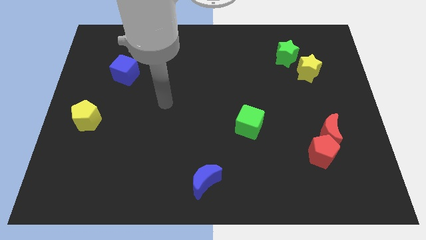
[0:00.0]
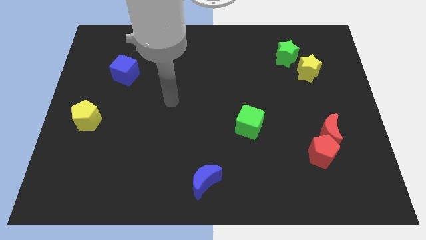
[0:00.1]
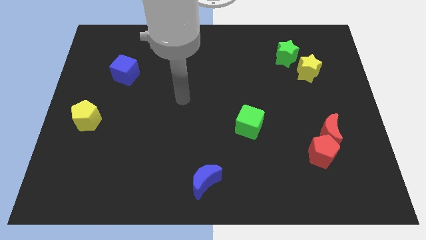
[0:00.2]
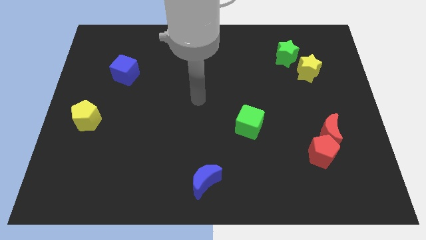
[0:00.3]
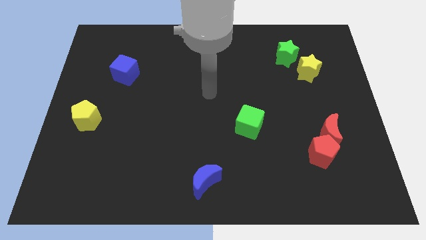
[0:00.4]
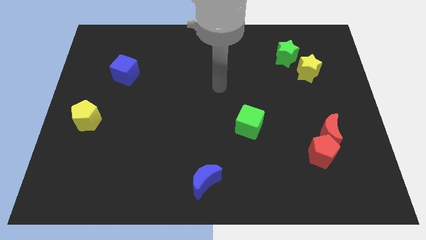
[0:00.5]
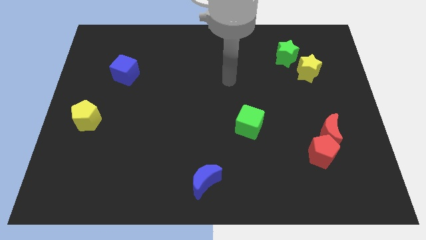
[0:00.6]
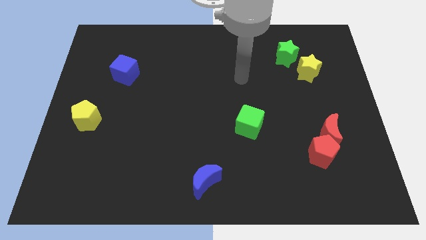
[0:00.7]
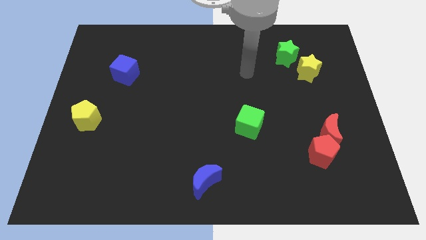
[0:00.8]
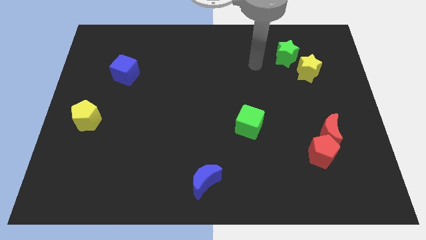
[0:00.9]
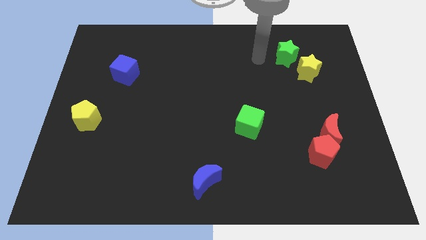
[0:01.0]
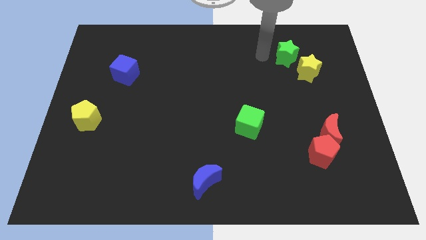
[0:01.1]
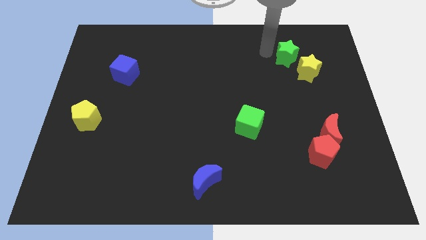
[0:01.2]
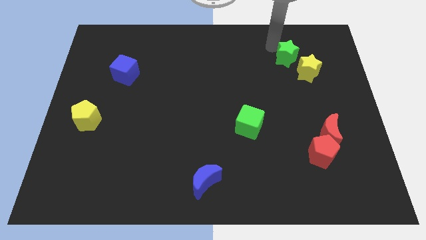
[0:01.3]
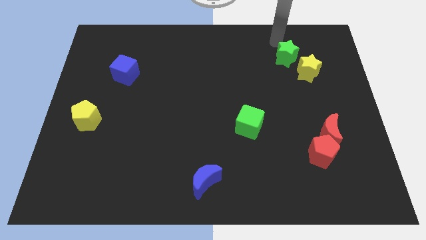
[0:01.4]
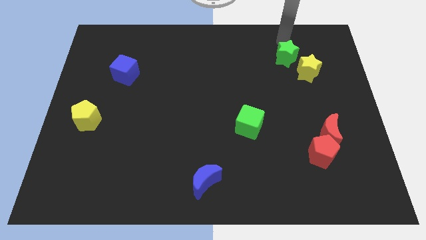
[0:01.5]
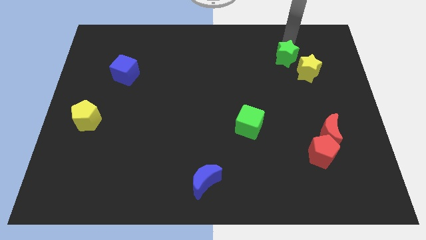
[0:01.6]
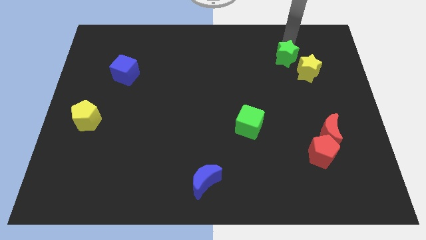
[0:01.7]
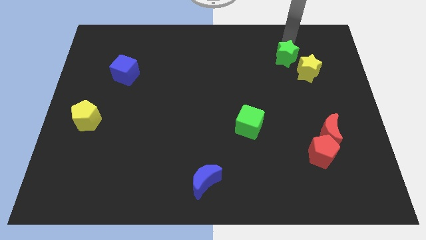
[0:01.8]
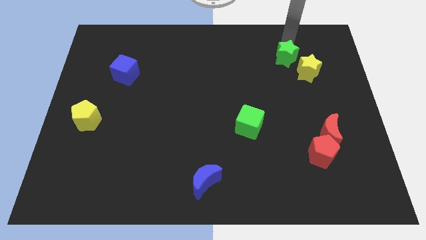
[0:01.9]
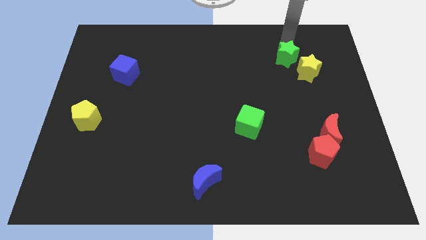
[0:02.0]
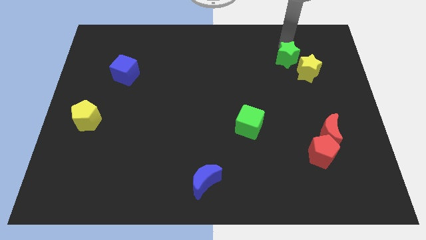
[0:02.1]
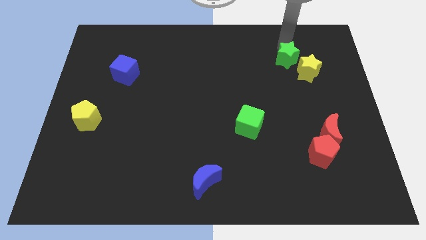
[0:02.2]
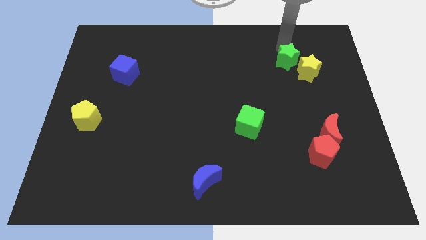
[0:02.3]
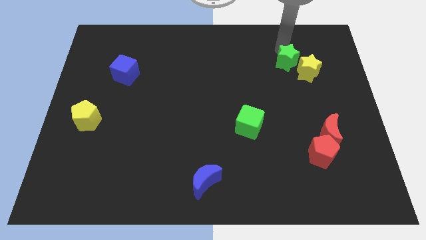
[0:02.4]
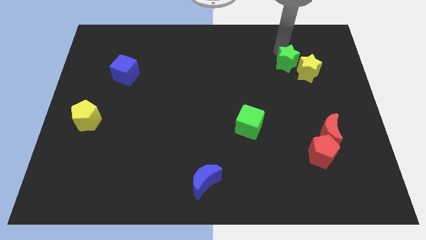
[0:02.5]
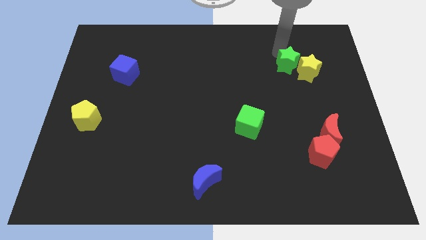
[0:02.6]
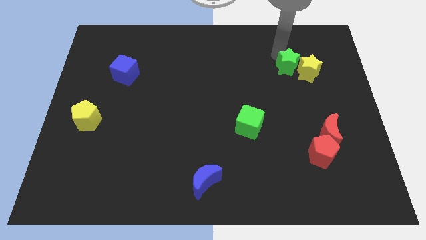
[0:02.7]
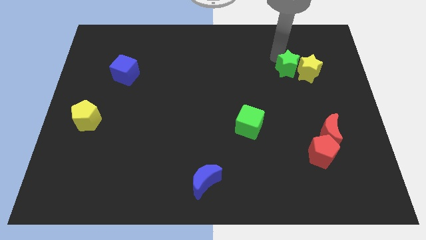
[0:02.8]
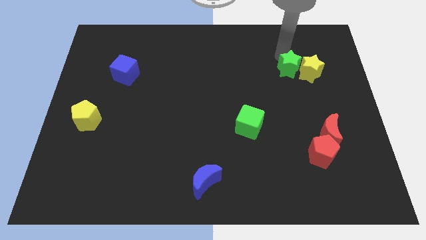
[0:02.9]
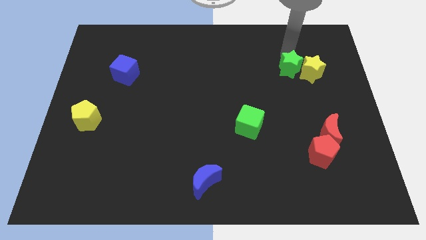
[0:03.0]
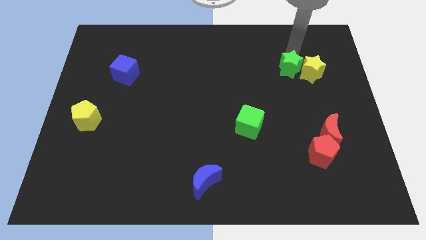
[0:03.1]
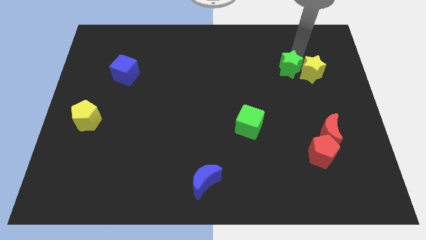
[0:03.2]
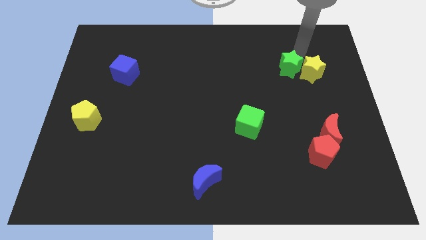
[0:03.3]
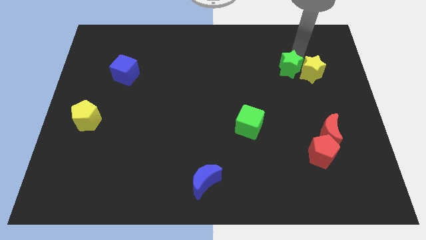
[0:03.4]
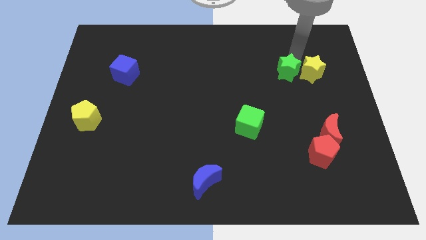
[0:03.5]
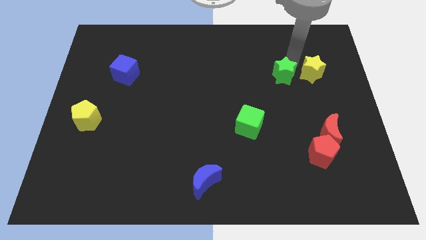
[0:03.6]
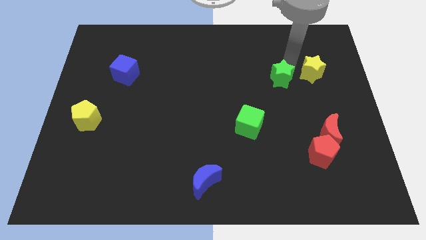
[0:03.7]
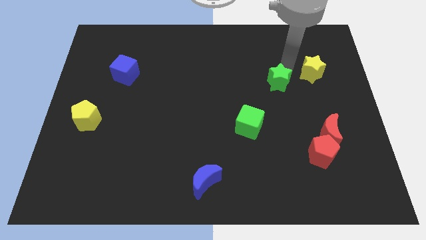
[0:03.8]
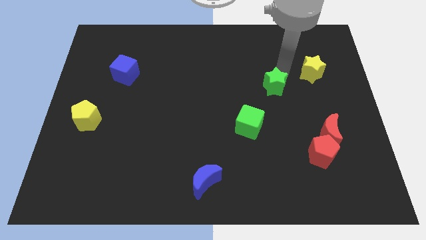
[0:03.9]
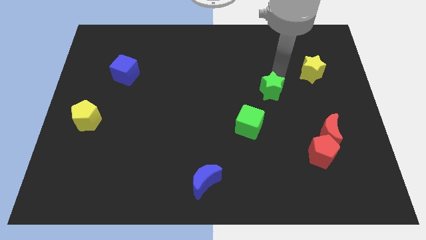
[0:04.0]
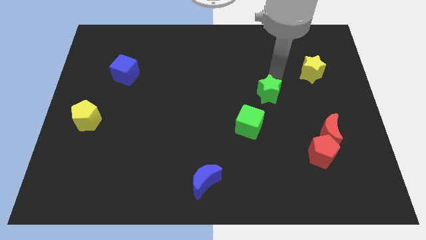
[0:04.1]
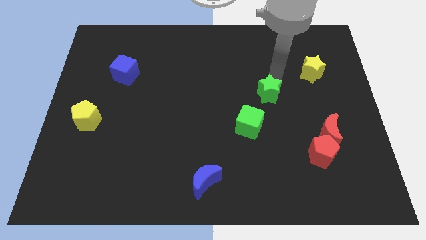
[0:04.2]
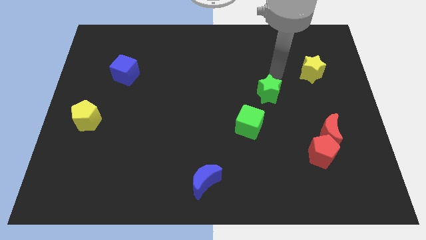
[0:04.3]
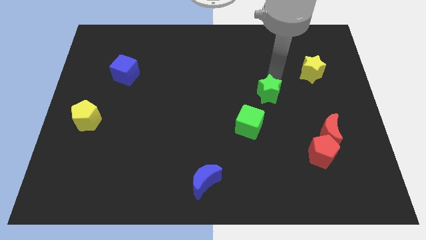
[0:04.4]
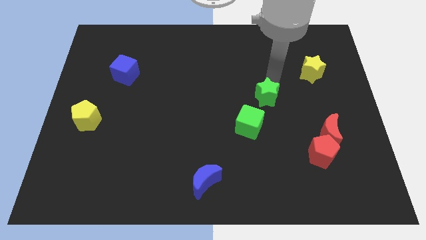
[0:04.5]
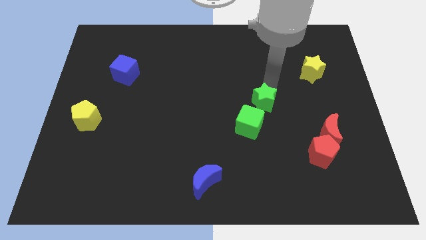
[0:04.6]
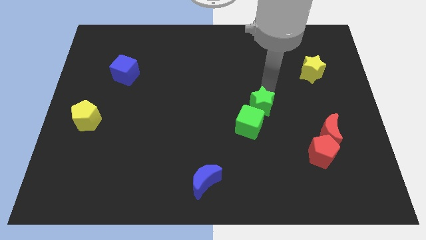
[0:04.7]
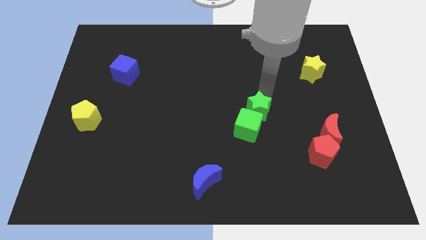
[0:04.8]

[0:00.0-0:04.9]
push the green star towards the green cube

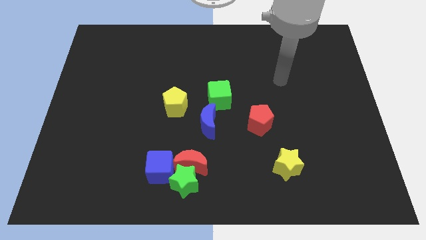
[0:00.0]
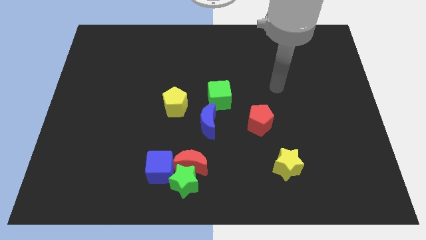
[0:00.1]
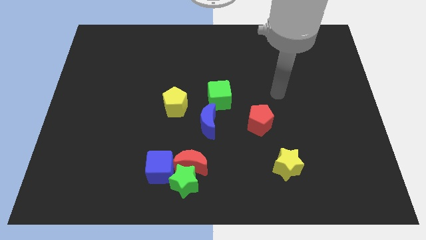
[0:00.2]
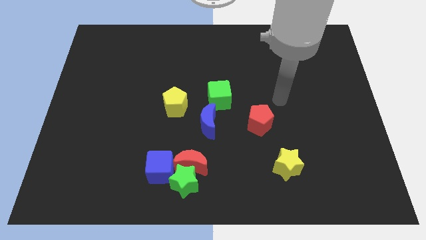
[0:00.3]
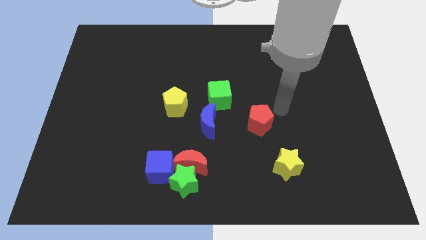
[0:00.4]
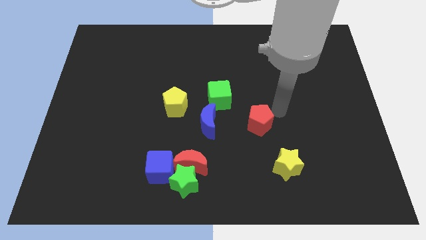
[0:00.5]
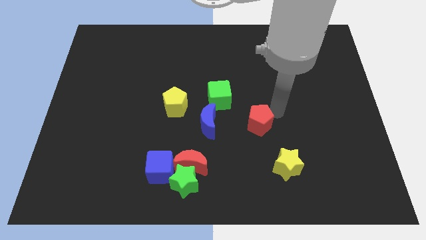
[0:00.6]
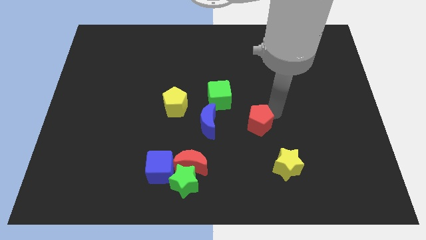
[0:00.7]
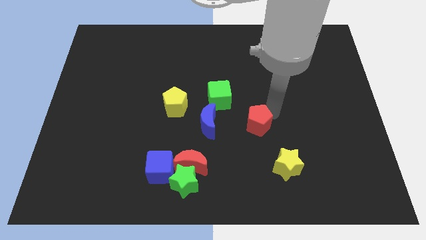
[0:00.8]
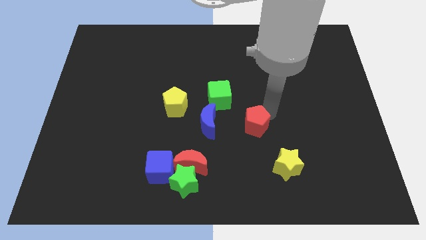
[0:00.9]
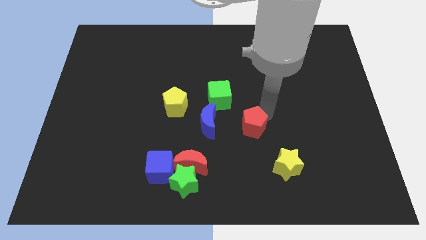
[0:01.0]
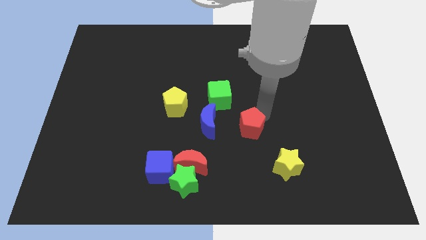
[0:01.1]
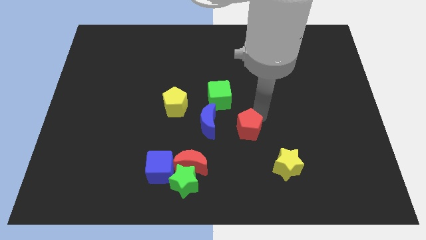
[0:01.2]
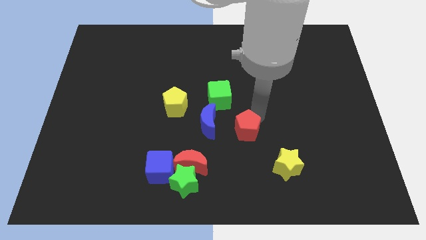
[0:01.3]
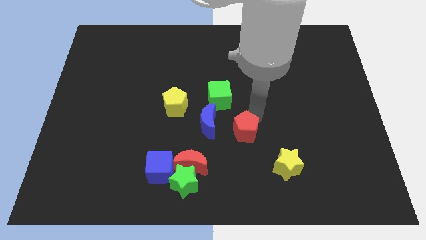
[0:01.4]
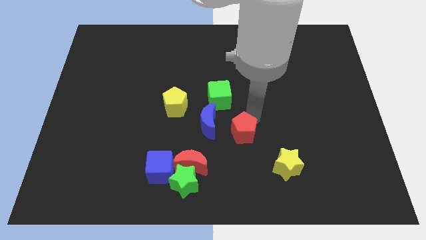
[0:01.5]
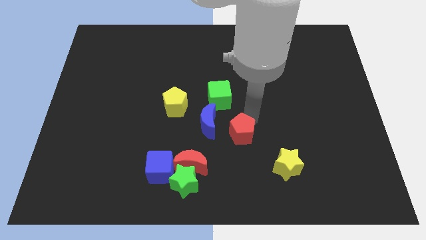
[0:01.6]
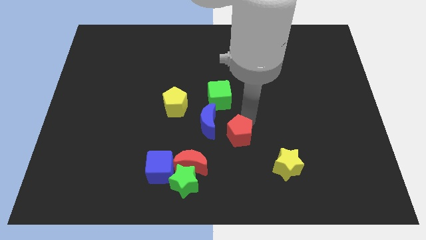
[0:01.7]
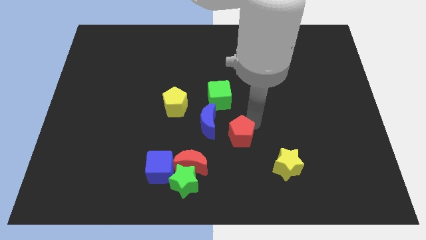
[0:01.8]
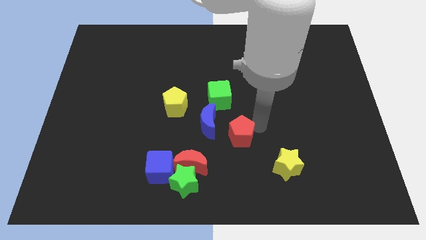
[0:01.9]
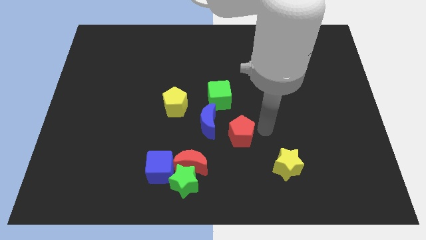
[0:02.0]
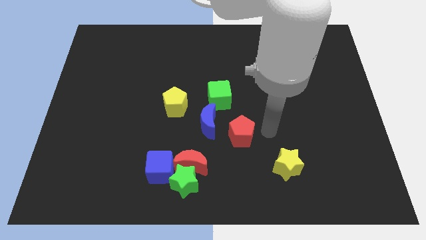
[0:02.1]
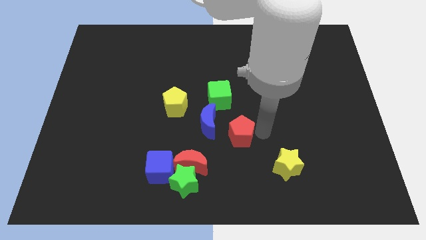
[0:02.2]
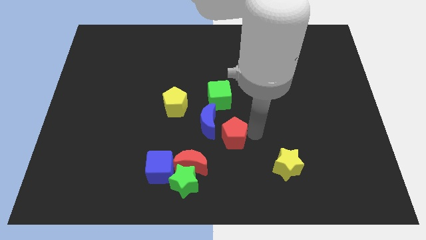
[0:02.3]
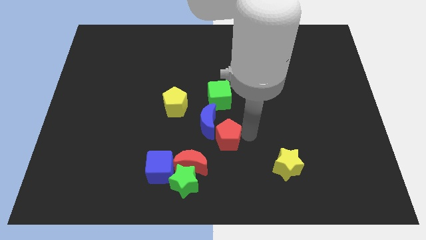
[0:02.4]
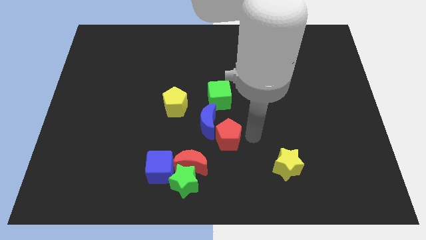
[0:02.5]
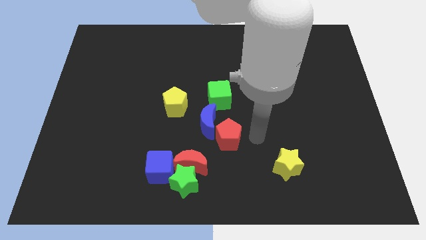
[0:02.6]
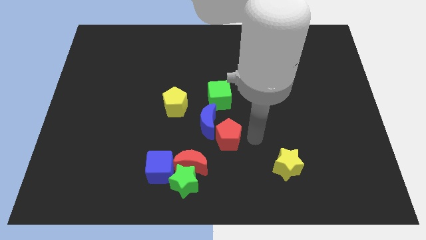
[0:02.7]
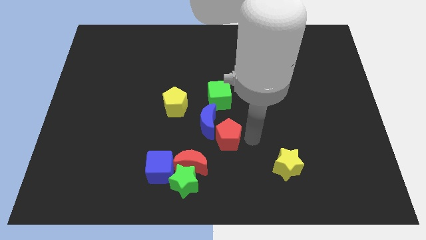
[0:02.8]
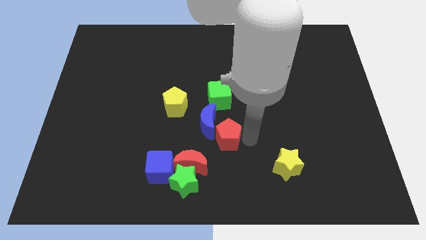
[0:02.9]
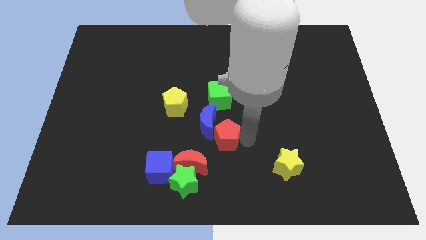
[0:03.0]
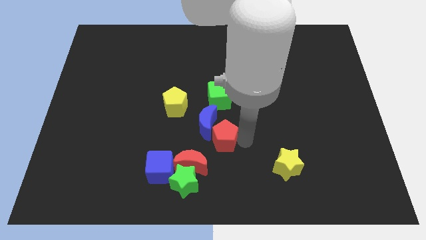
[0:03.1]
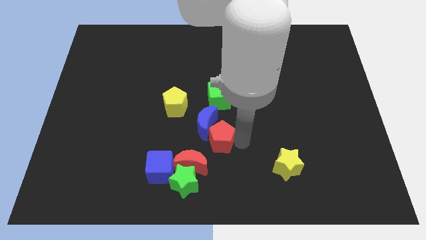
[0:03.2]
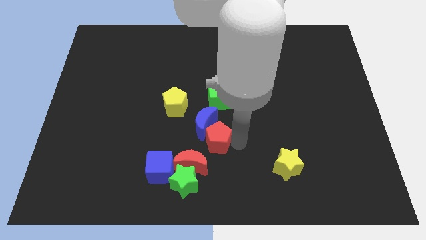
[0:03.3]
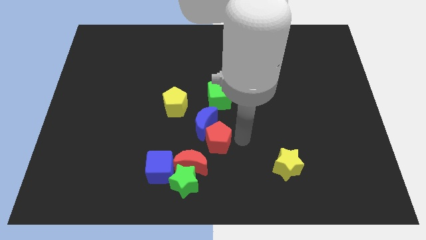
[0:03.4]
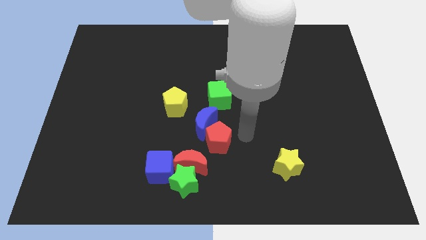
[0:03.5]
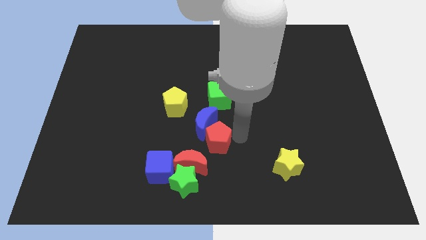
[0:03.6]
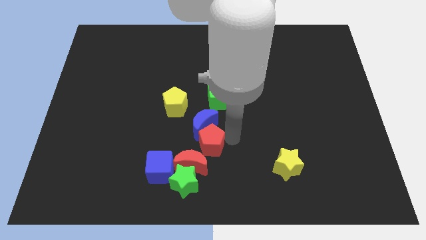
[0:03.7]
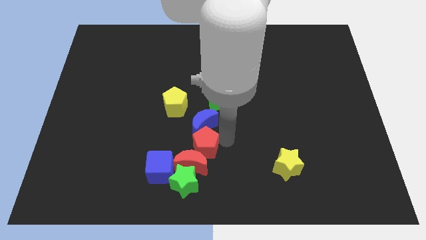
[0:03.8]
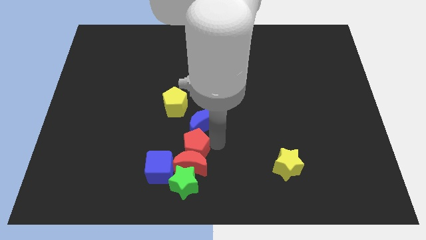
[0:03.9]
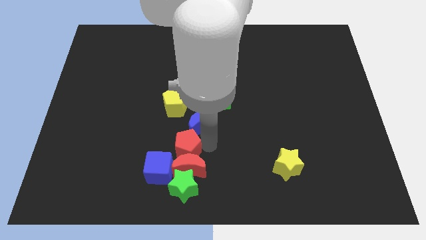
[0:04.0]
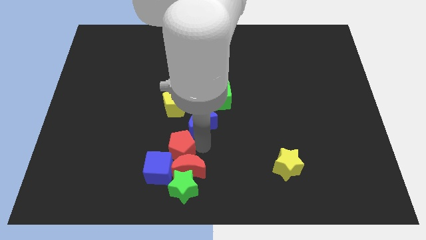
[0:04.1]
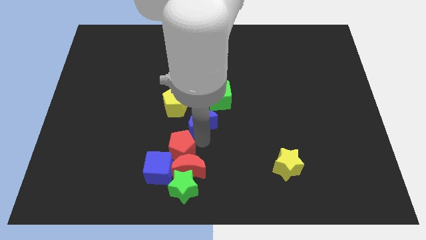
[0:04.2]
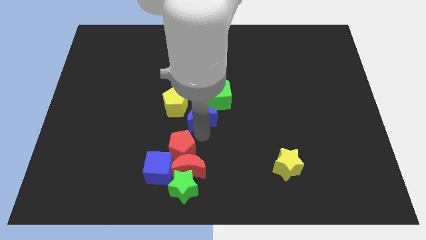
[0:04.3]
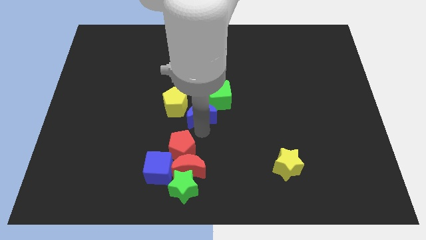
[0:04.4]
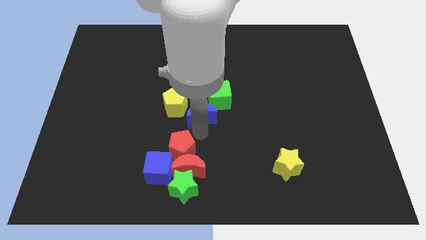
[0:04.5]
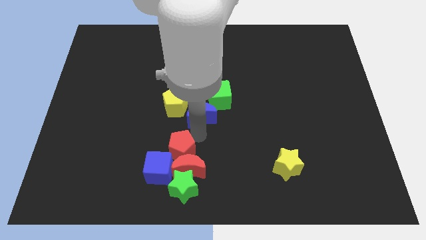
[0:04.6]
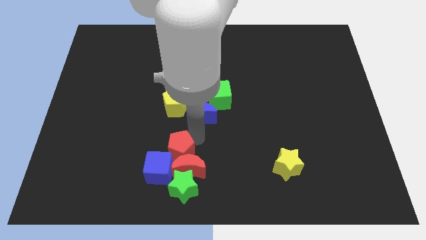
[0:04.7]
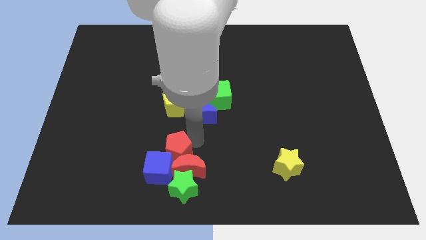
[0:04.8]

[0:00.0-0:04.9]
slide the red pentagon close to the blue cube
